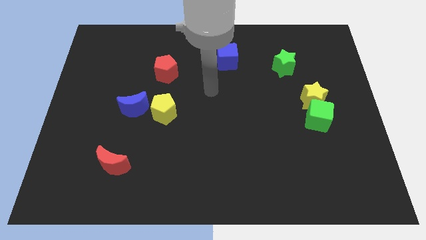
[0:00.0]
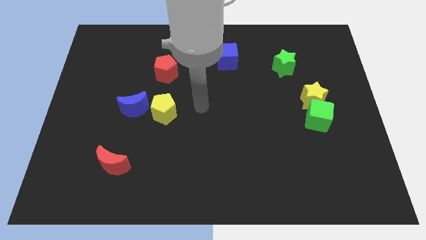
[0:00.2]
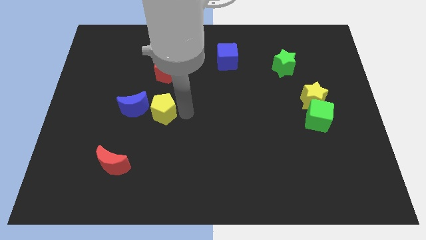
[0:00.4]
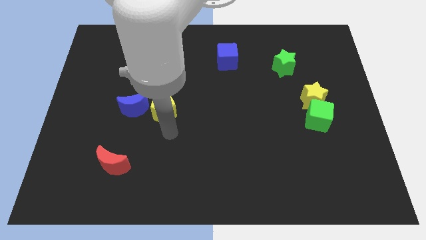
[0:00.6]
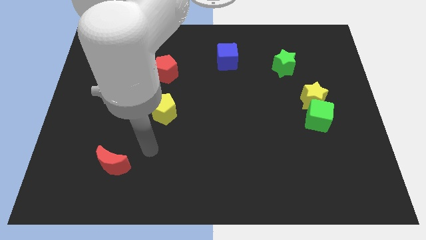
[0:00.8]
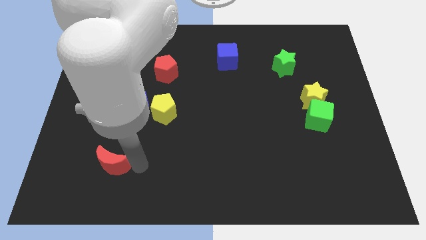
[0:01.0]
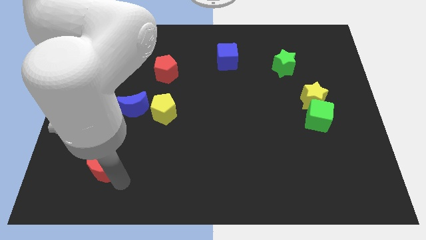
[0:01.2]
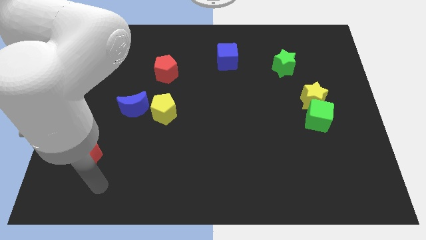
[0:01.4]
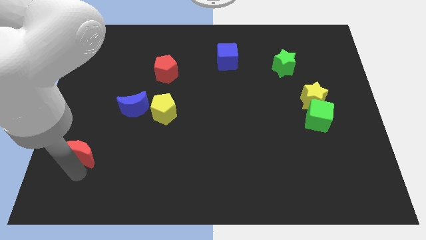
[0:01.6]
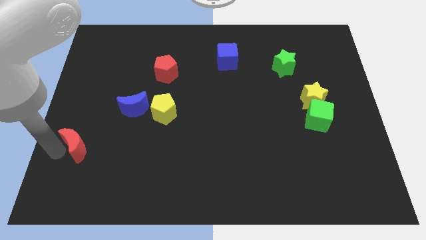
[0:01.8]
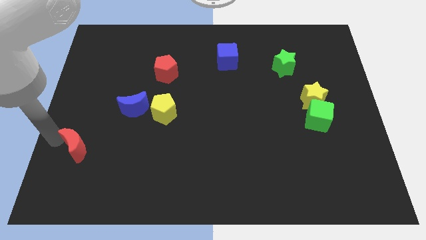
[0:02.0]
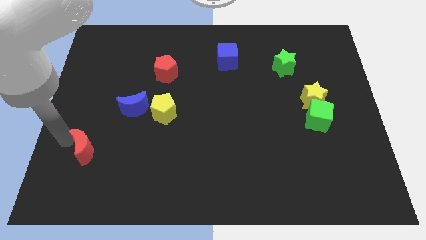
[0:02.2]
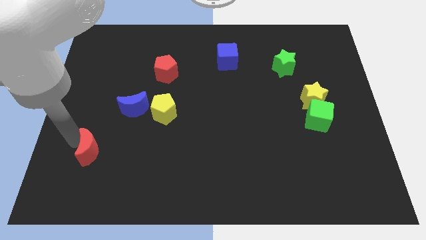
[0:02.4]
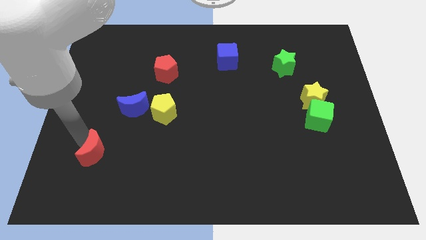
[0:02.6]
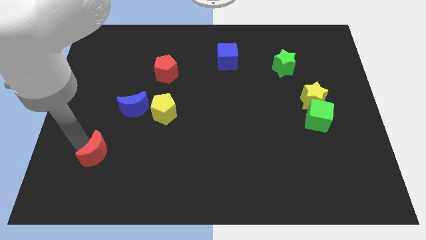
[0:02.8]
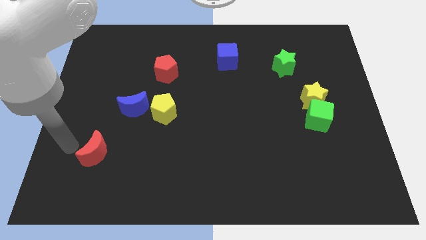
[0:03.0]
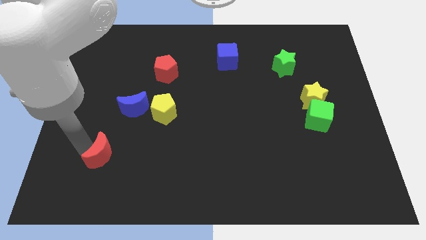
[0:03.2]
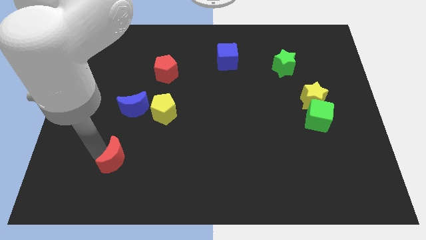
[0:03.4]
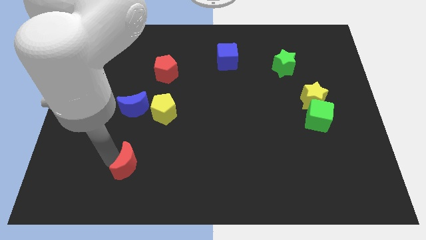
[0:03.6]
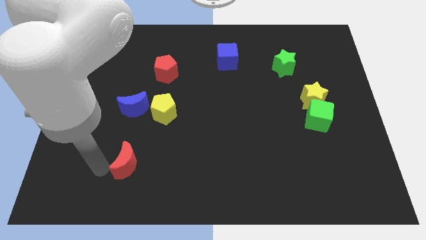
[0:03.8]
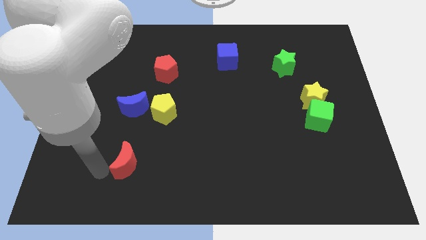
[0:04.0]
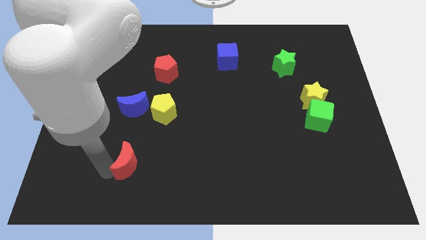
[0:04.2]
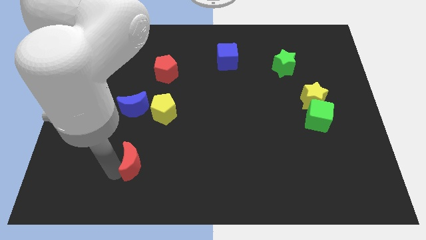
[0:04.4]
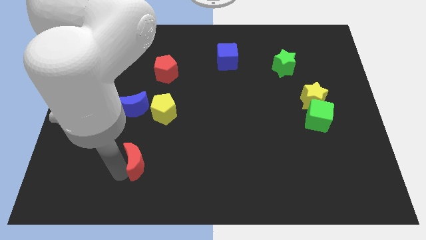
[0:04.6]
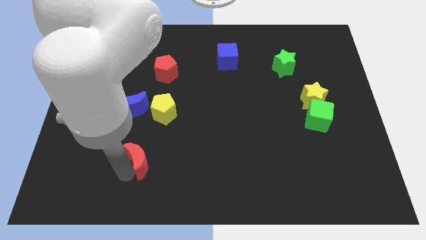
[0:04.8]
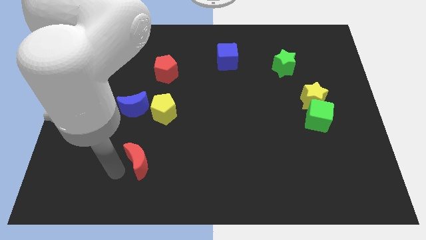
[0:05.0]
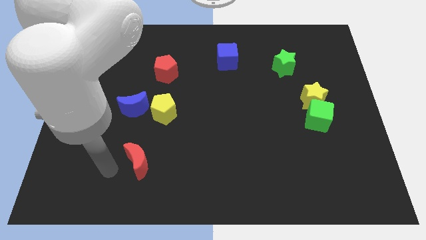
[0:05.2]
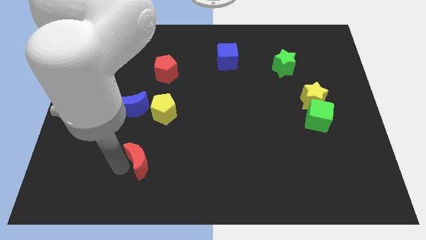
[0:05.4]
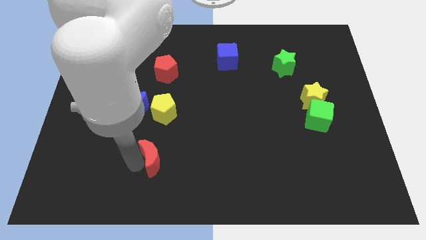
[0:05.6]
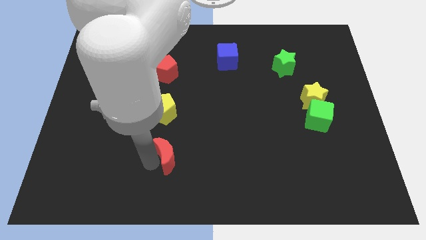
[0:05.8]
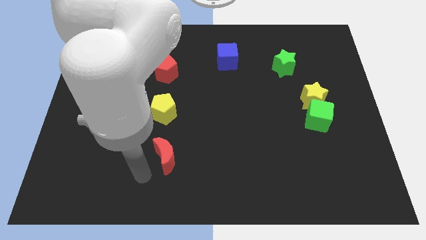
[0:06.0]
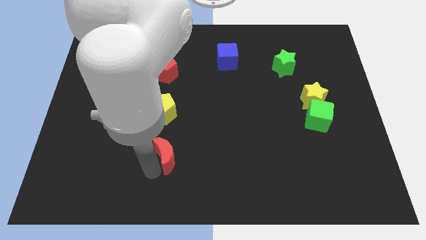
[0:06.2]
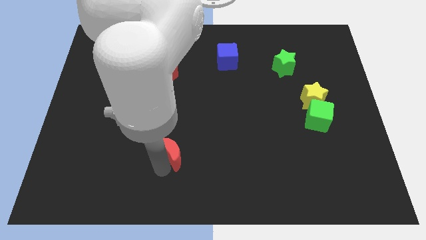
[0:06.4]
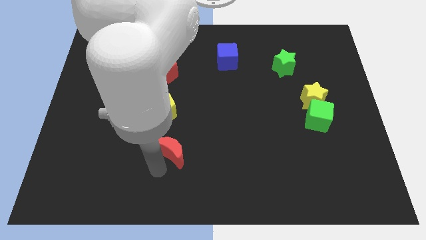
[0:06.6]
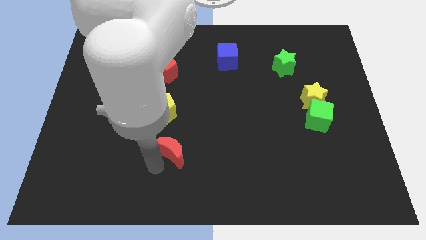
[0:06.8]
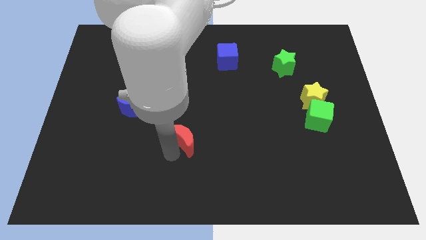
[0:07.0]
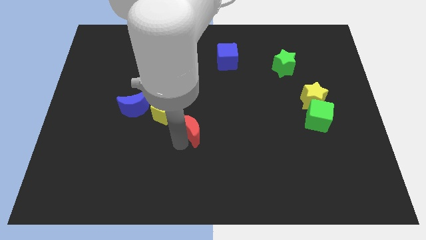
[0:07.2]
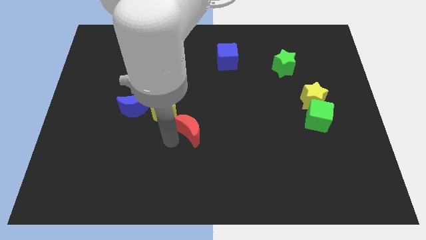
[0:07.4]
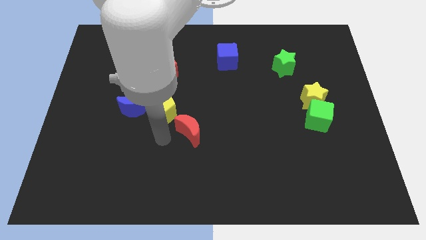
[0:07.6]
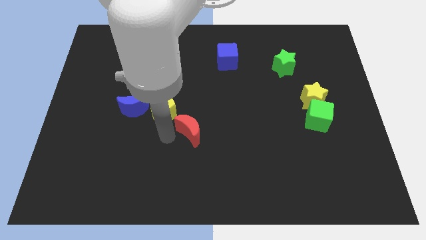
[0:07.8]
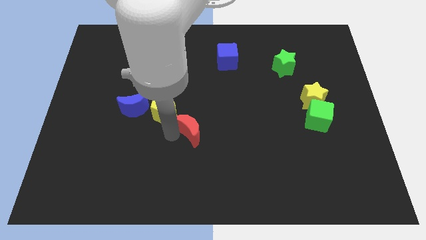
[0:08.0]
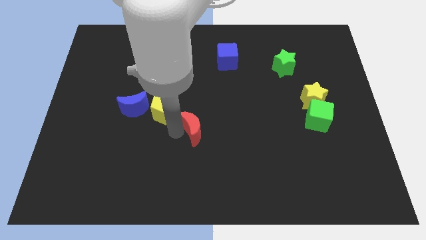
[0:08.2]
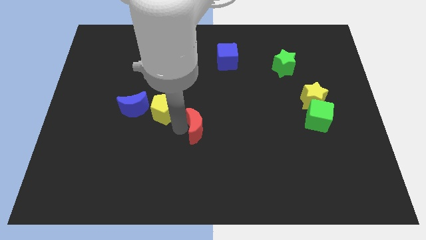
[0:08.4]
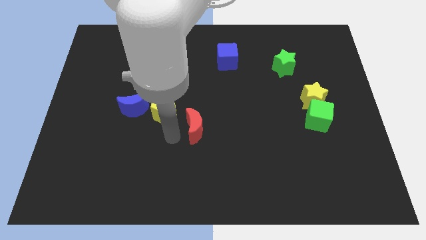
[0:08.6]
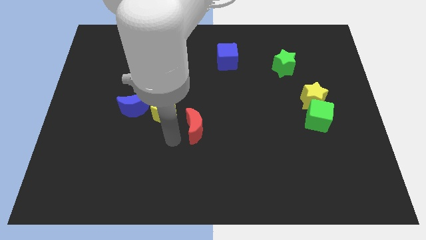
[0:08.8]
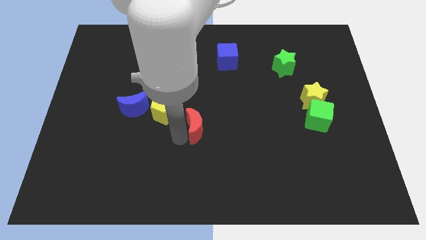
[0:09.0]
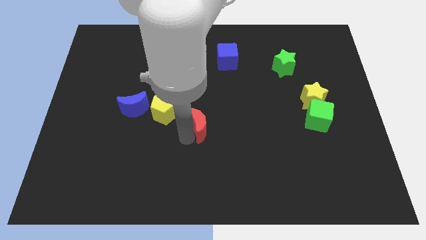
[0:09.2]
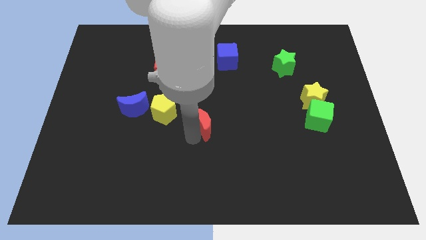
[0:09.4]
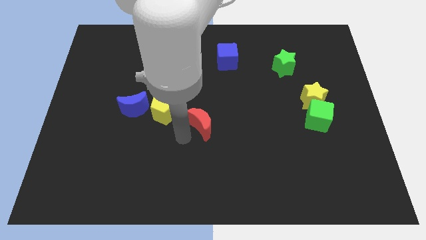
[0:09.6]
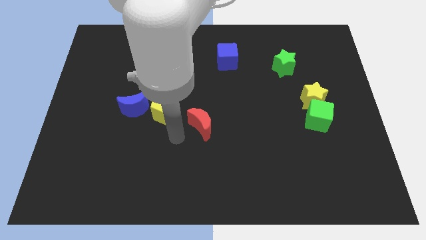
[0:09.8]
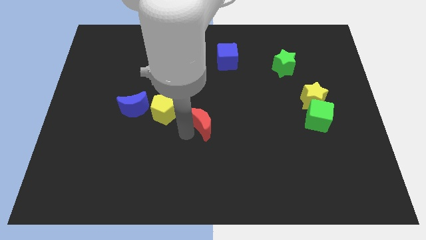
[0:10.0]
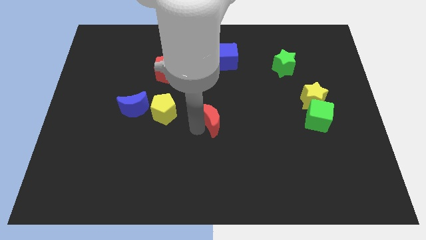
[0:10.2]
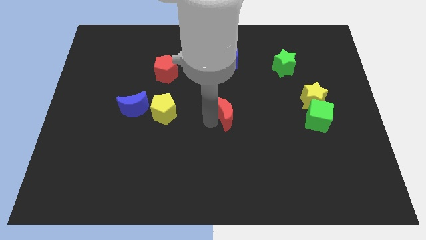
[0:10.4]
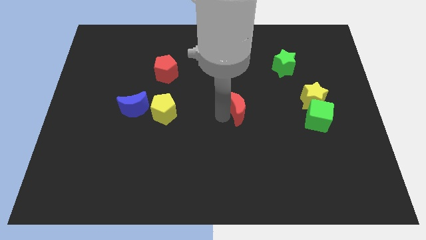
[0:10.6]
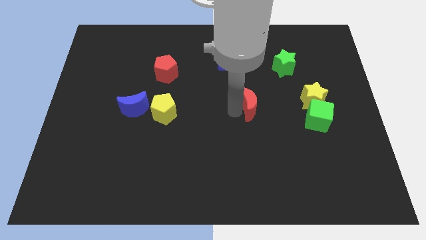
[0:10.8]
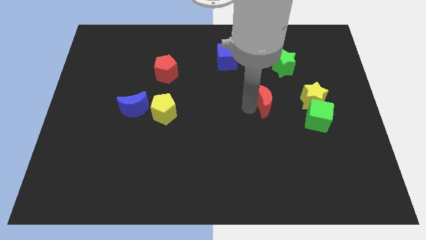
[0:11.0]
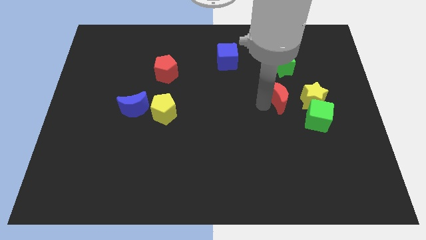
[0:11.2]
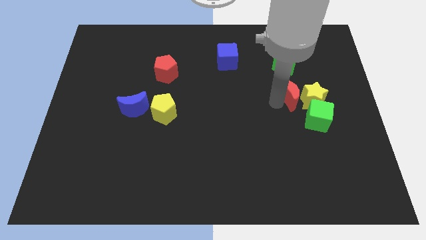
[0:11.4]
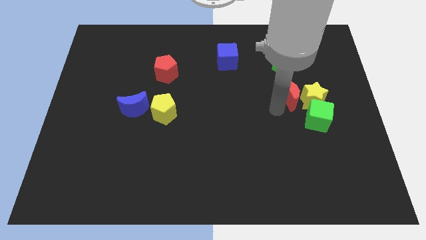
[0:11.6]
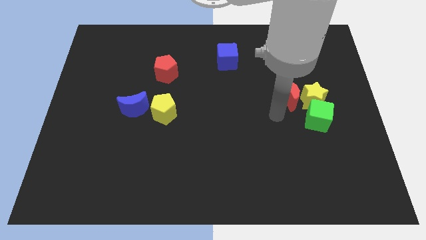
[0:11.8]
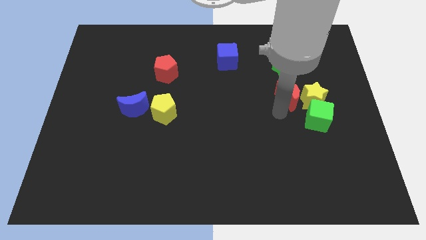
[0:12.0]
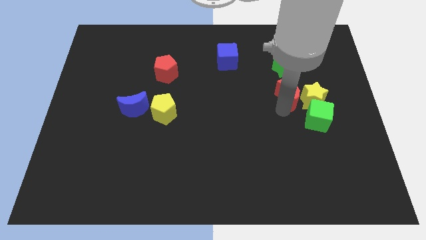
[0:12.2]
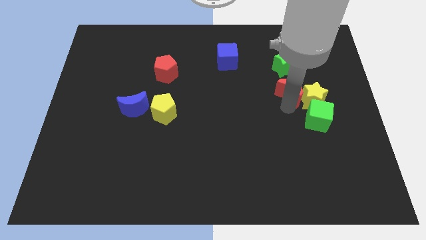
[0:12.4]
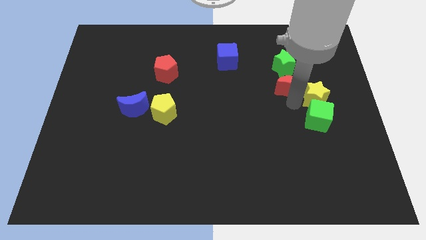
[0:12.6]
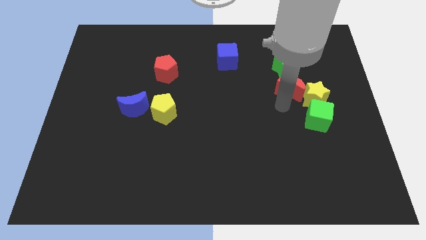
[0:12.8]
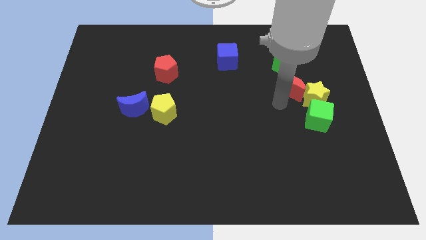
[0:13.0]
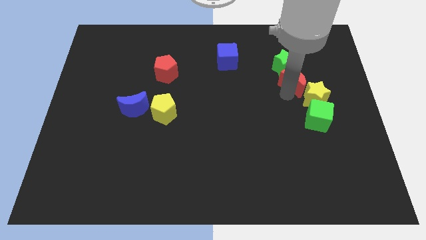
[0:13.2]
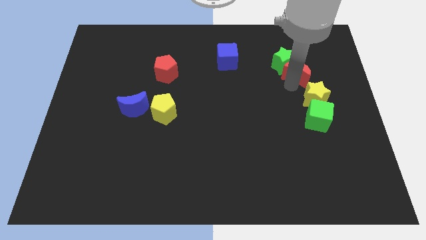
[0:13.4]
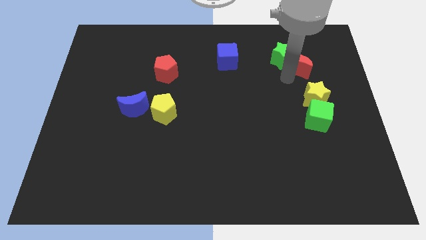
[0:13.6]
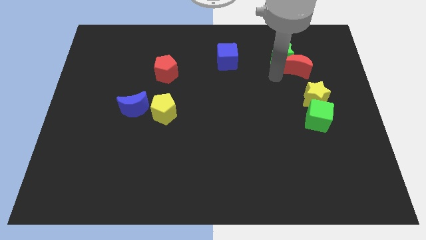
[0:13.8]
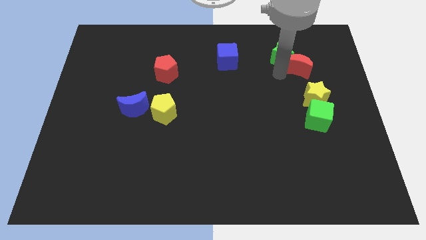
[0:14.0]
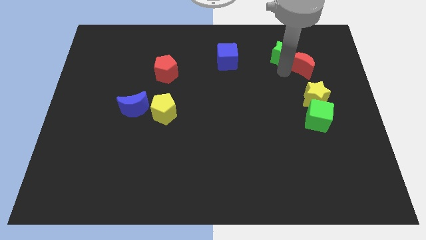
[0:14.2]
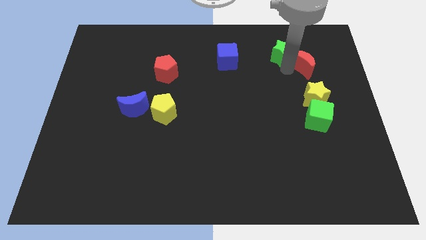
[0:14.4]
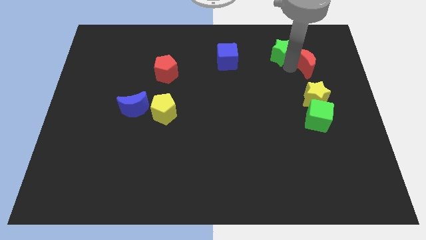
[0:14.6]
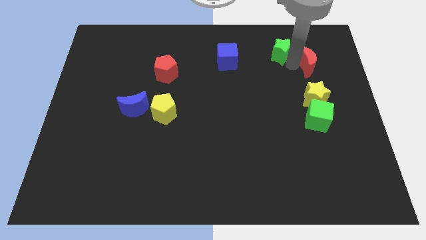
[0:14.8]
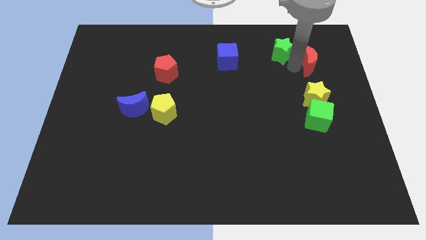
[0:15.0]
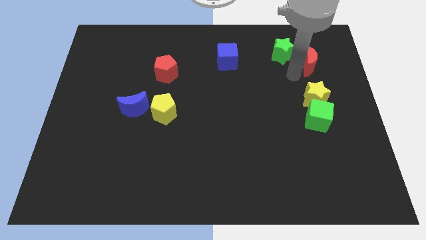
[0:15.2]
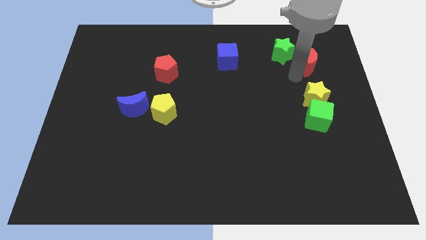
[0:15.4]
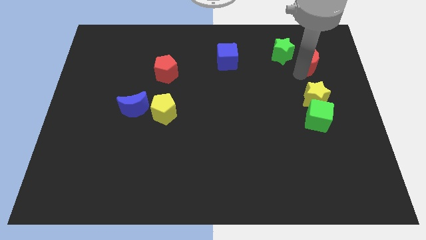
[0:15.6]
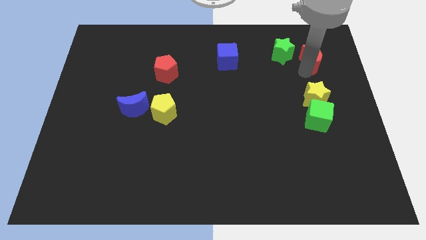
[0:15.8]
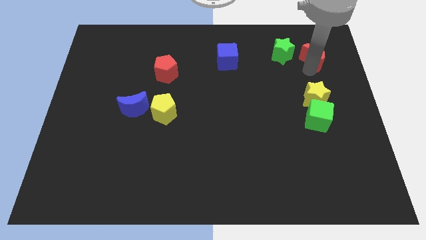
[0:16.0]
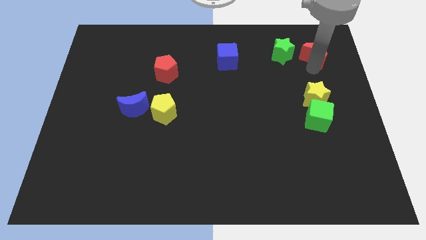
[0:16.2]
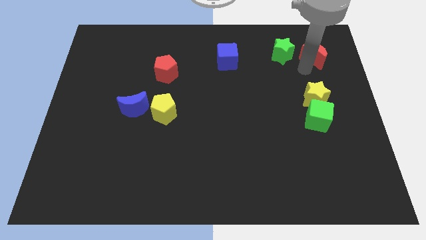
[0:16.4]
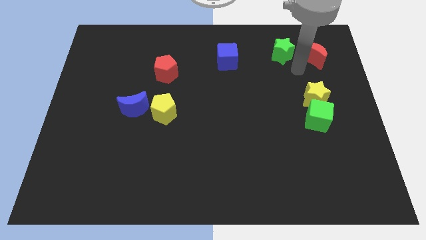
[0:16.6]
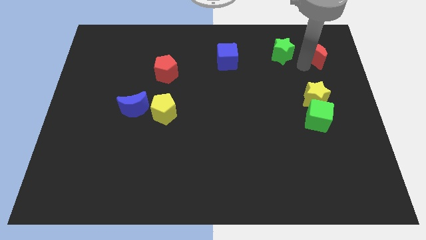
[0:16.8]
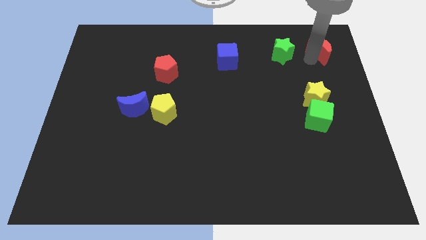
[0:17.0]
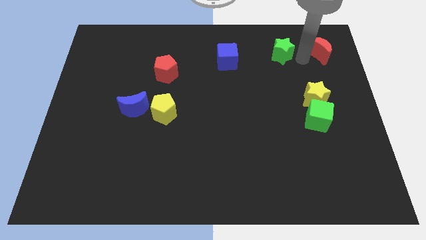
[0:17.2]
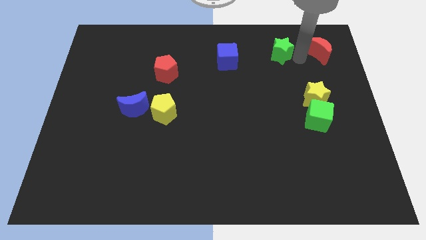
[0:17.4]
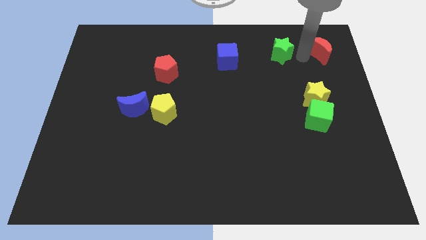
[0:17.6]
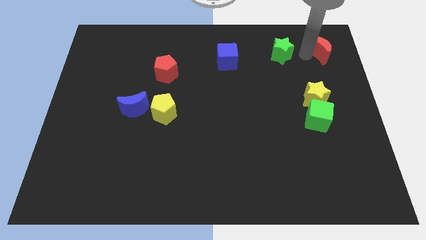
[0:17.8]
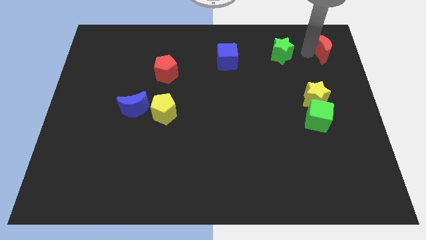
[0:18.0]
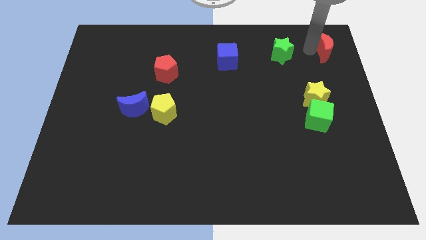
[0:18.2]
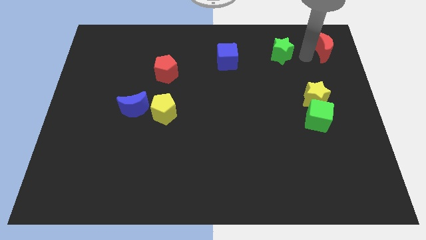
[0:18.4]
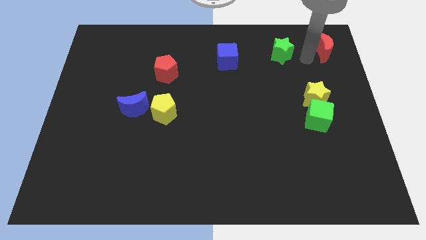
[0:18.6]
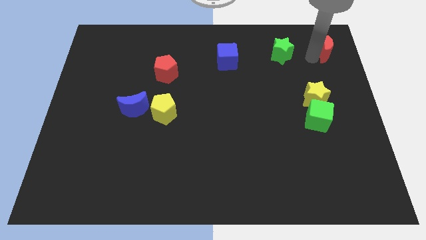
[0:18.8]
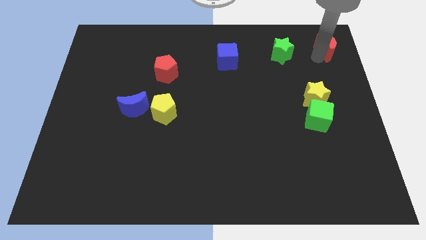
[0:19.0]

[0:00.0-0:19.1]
push the red moon to the upper right corner
